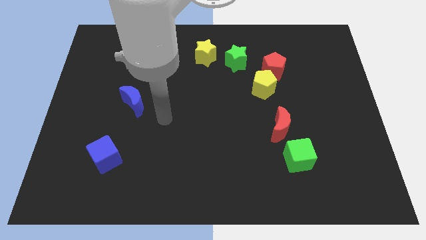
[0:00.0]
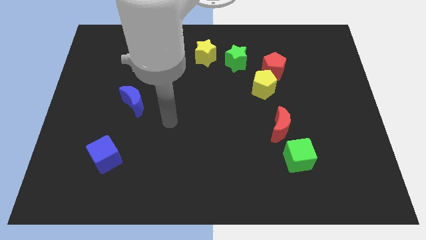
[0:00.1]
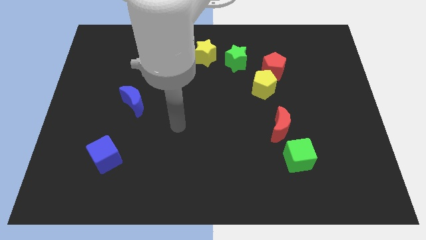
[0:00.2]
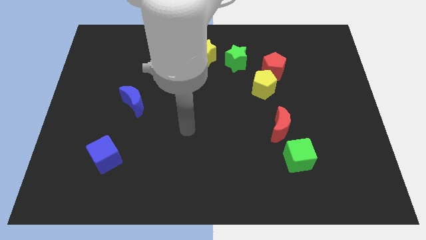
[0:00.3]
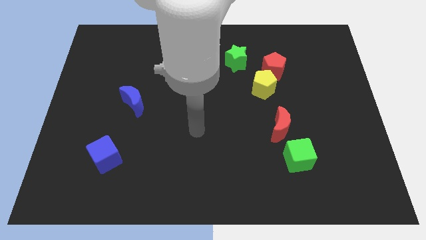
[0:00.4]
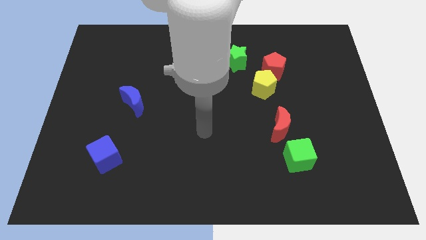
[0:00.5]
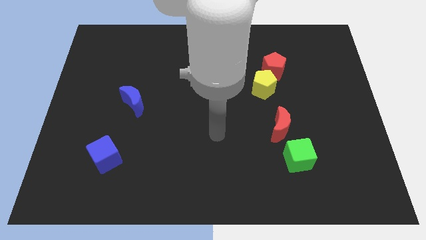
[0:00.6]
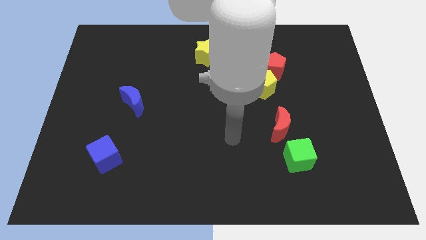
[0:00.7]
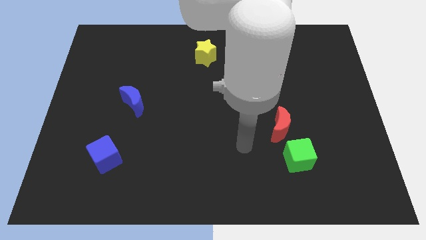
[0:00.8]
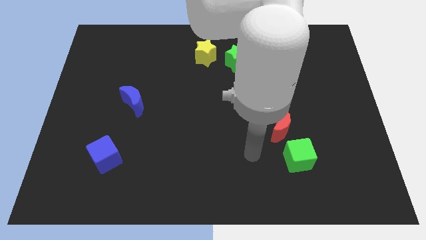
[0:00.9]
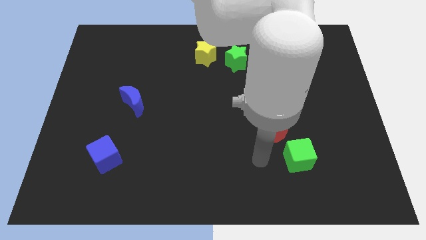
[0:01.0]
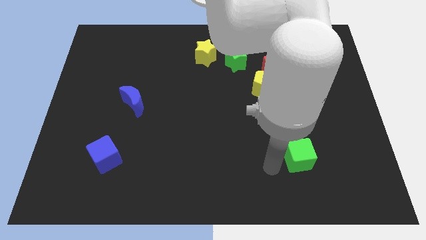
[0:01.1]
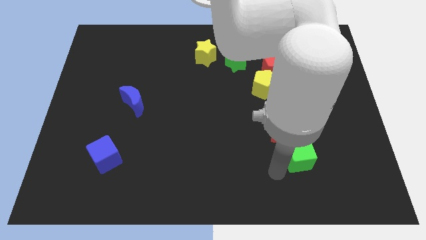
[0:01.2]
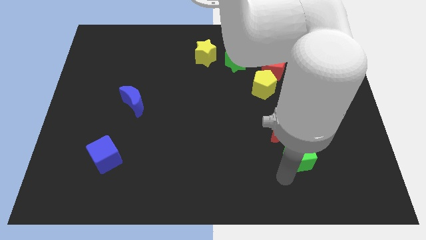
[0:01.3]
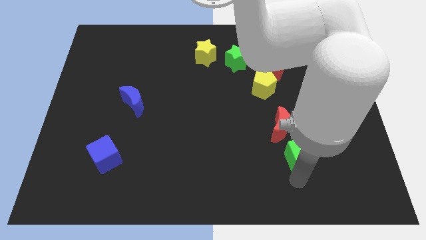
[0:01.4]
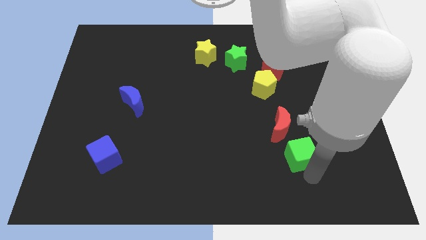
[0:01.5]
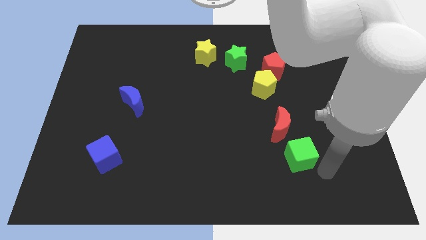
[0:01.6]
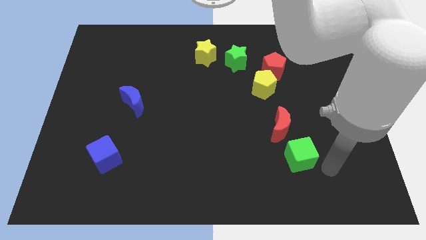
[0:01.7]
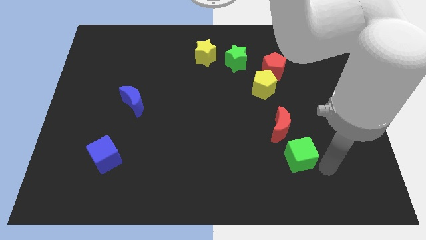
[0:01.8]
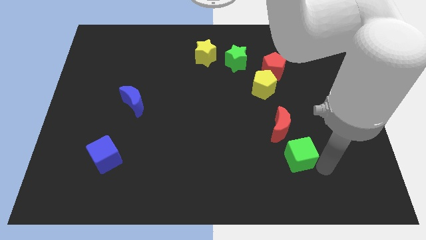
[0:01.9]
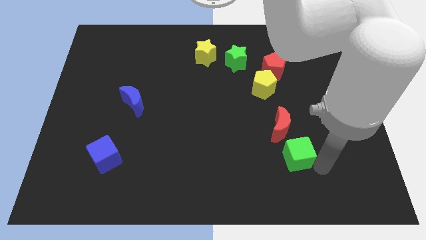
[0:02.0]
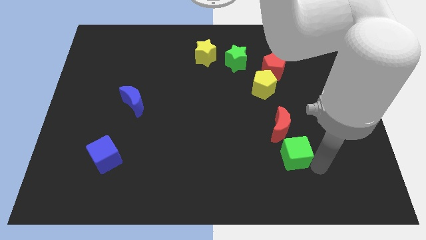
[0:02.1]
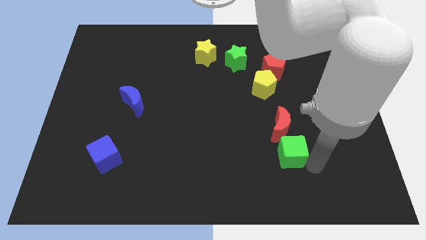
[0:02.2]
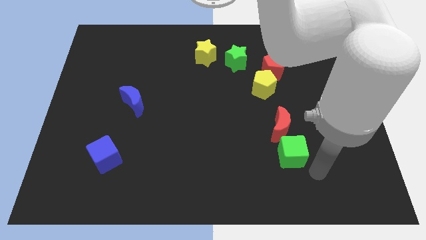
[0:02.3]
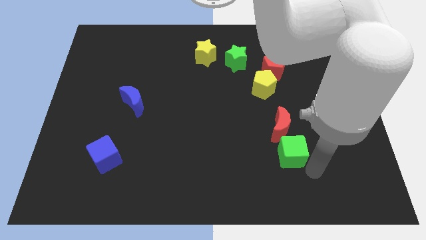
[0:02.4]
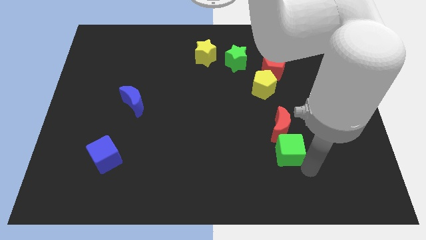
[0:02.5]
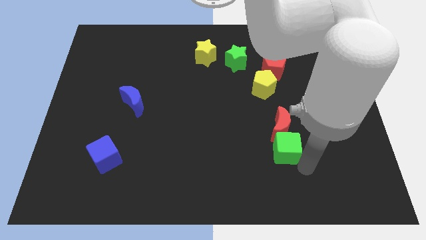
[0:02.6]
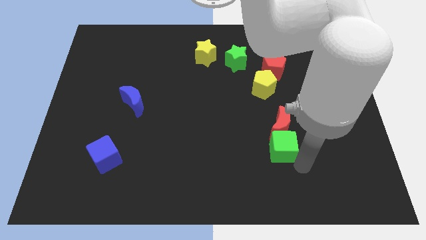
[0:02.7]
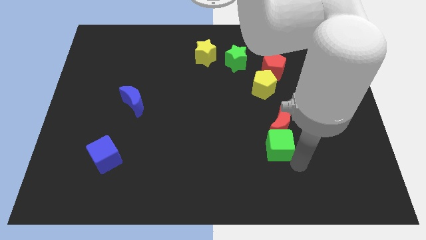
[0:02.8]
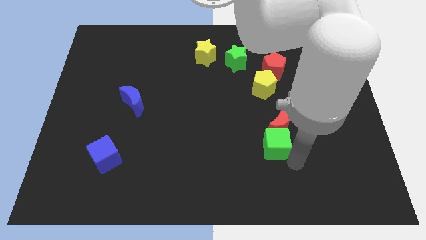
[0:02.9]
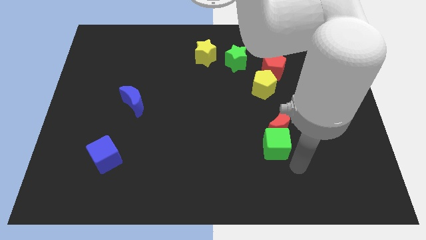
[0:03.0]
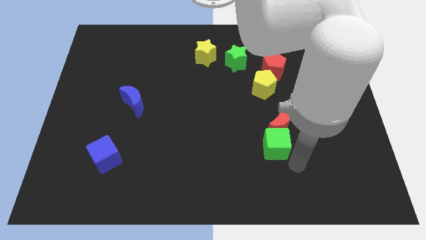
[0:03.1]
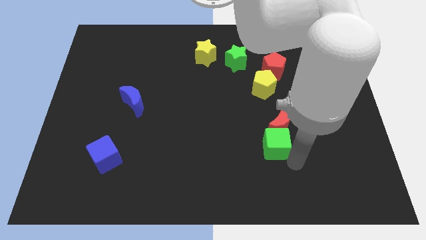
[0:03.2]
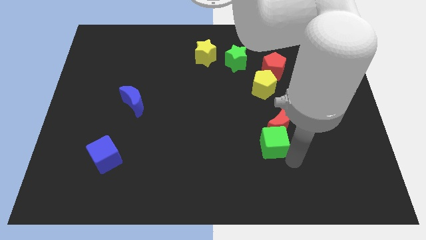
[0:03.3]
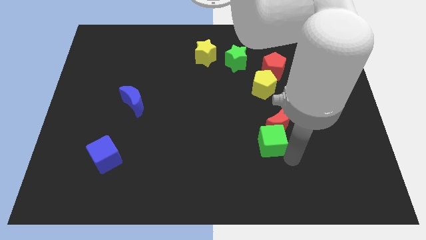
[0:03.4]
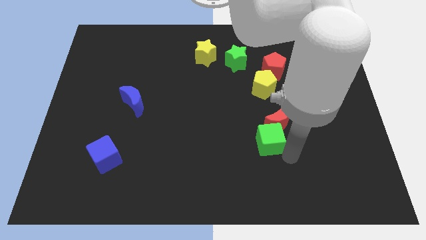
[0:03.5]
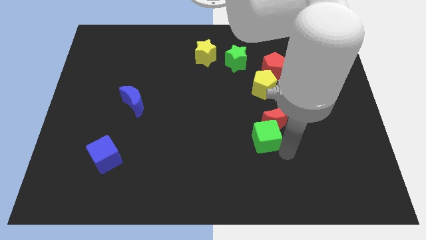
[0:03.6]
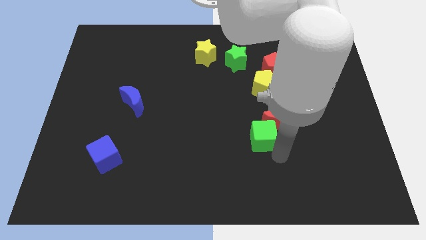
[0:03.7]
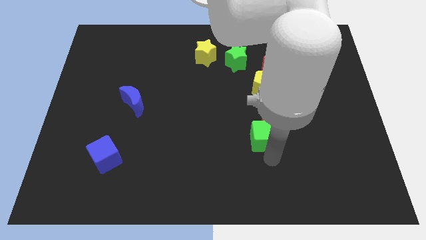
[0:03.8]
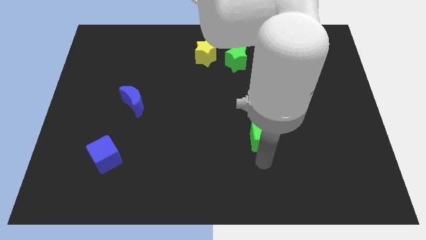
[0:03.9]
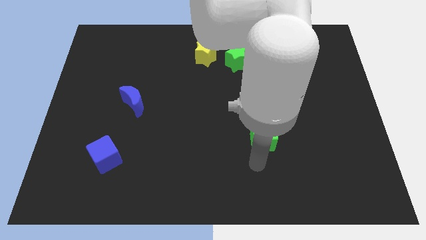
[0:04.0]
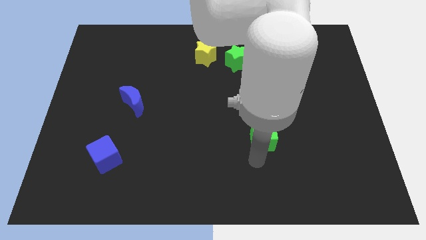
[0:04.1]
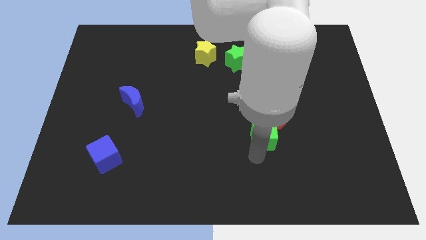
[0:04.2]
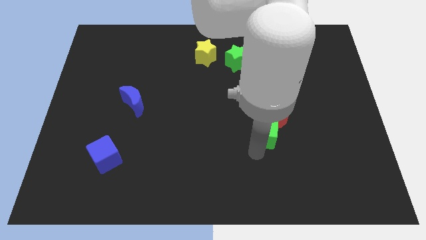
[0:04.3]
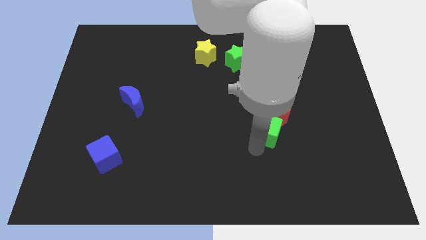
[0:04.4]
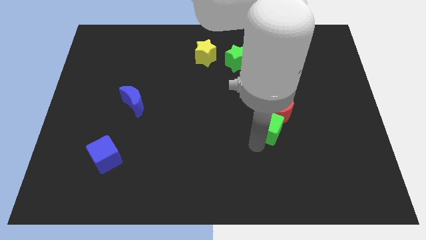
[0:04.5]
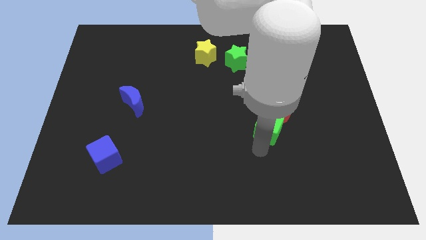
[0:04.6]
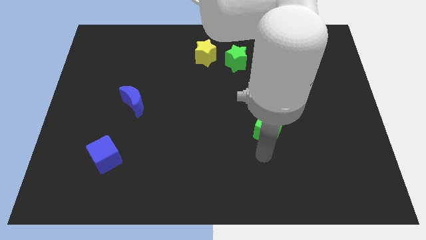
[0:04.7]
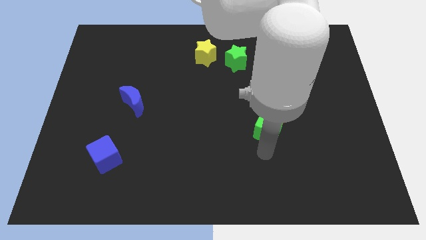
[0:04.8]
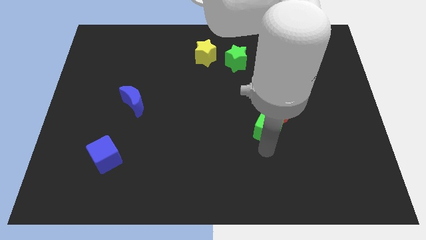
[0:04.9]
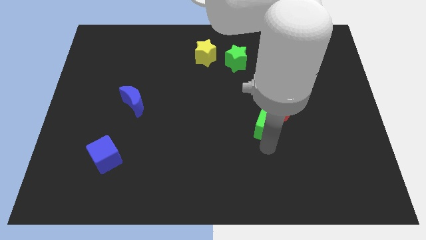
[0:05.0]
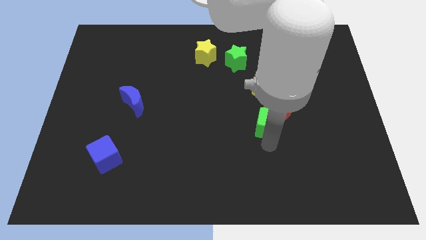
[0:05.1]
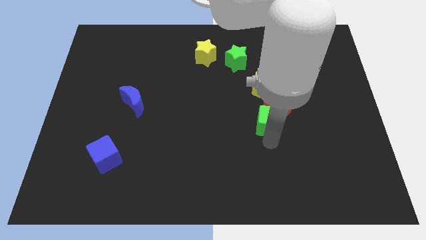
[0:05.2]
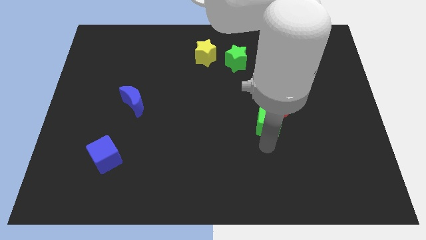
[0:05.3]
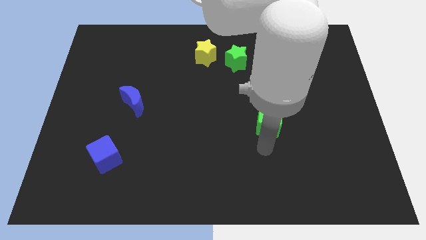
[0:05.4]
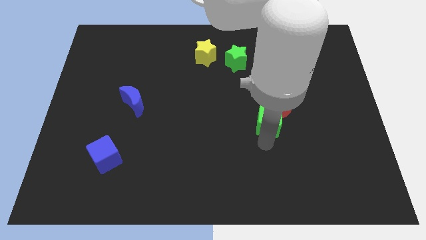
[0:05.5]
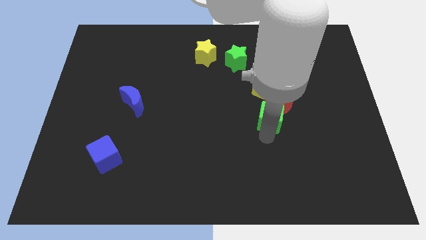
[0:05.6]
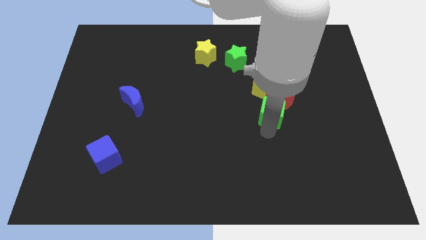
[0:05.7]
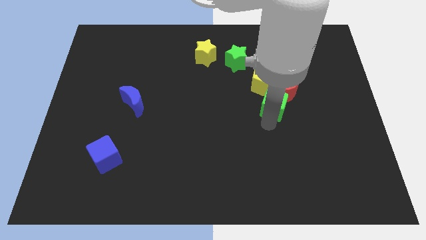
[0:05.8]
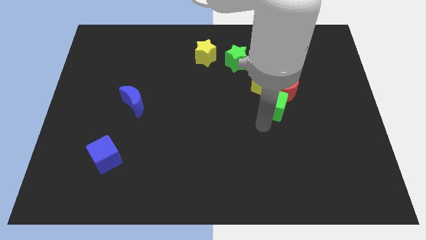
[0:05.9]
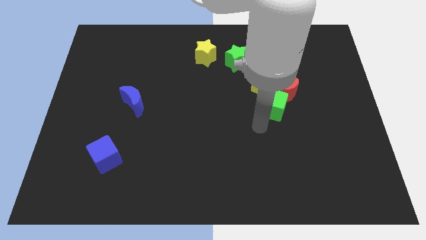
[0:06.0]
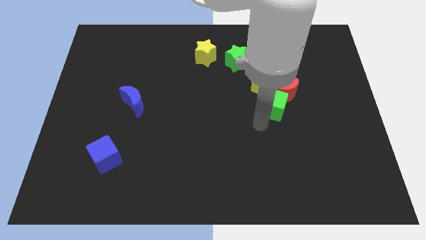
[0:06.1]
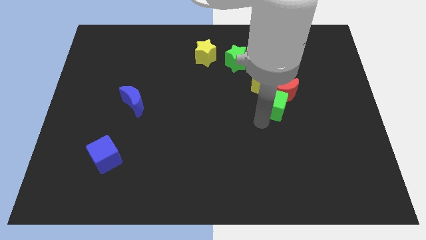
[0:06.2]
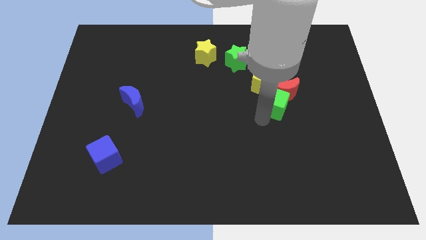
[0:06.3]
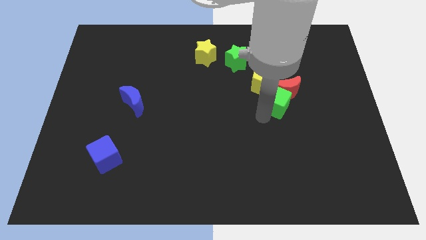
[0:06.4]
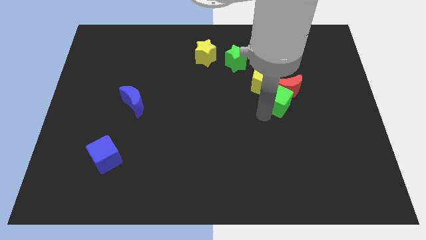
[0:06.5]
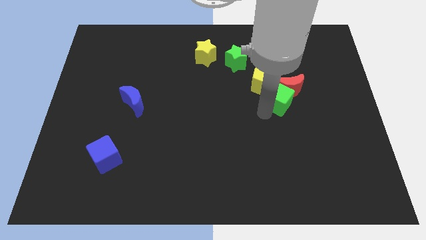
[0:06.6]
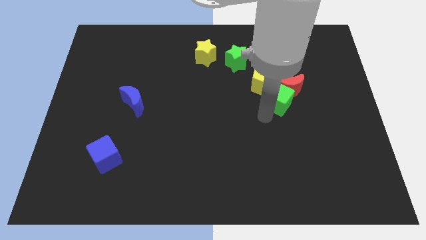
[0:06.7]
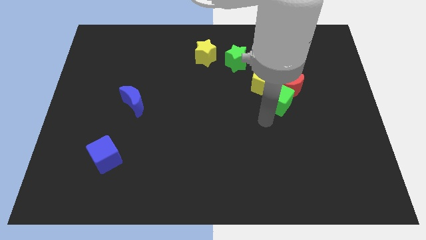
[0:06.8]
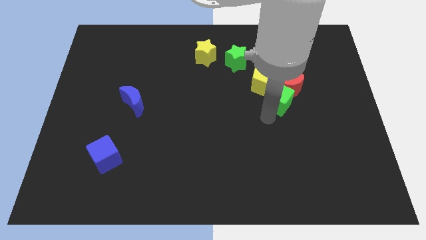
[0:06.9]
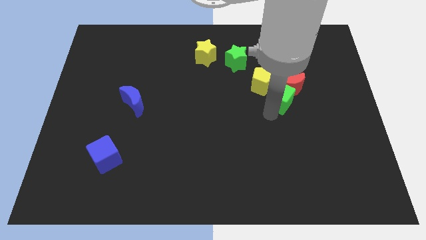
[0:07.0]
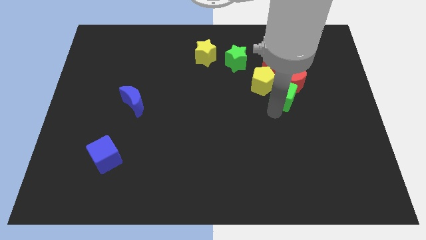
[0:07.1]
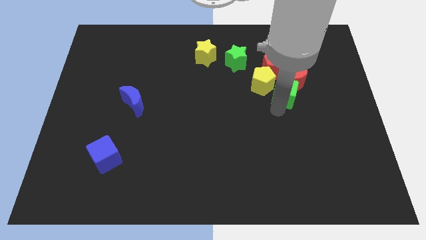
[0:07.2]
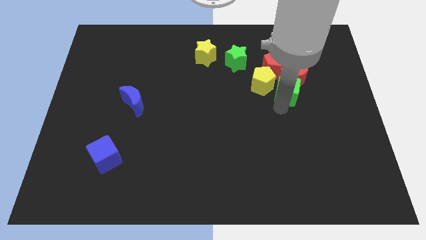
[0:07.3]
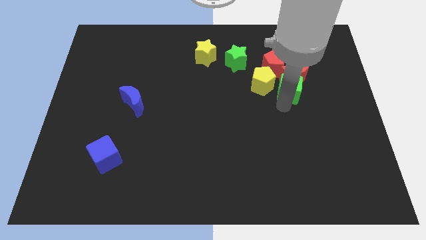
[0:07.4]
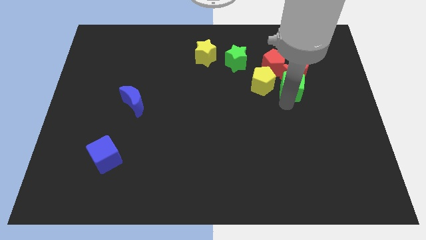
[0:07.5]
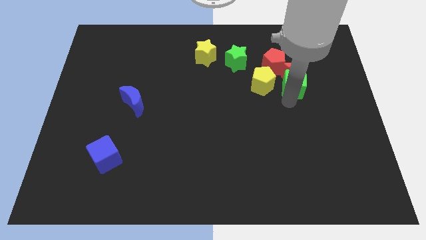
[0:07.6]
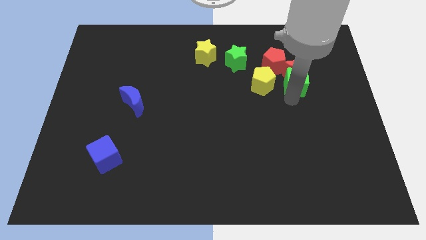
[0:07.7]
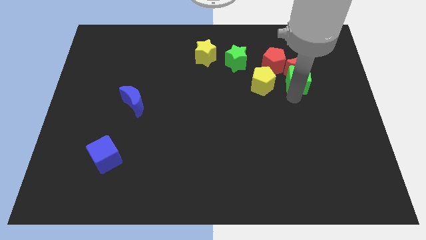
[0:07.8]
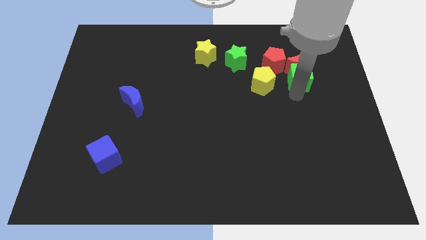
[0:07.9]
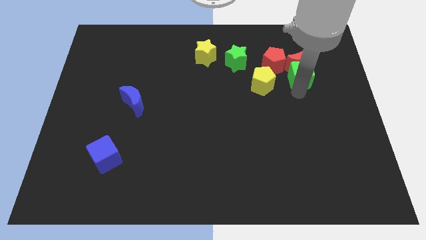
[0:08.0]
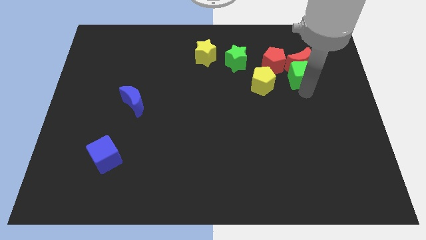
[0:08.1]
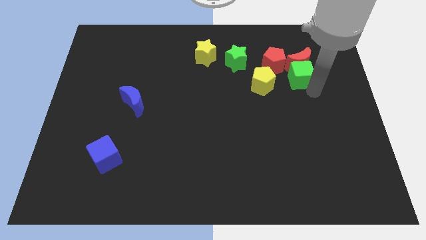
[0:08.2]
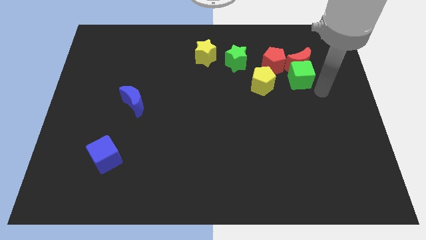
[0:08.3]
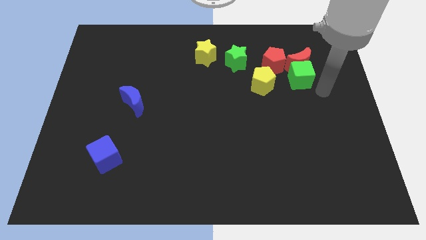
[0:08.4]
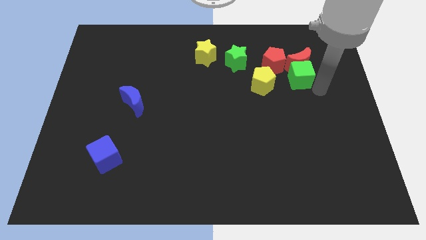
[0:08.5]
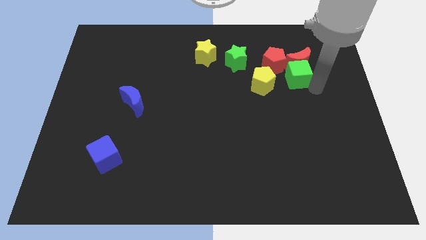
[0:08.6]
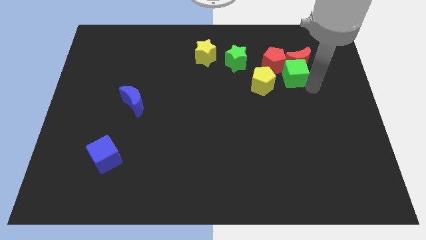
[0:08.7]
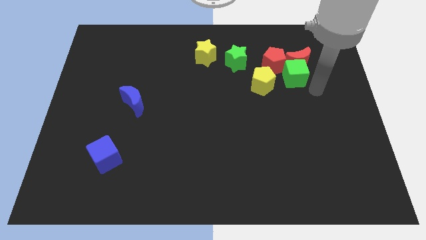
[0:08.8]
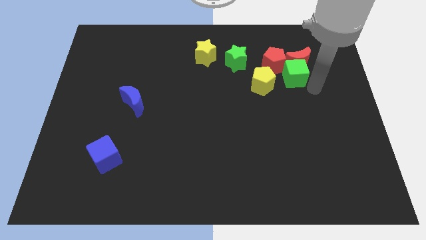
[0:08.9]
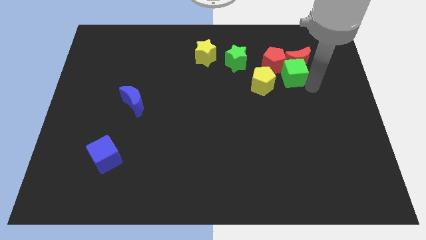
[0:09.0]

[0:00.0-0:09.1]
slide the green cube towards the red pentagon
